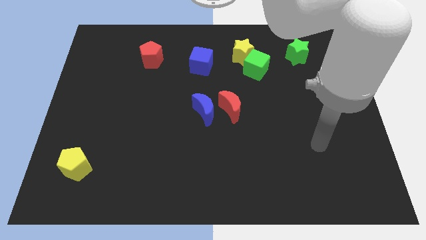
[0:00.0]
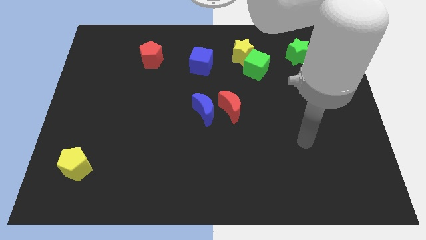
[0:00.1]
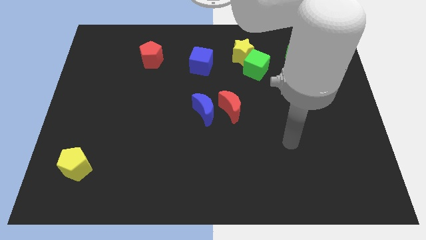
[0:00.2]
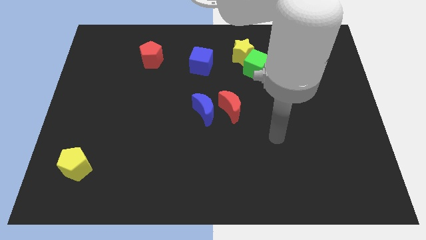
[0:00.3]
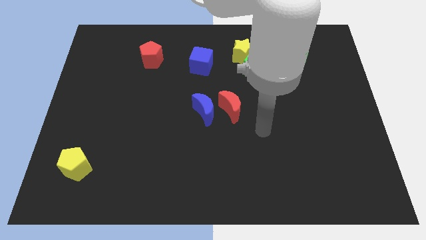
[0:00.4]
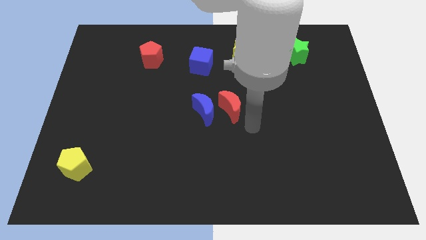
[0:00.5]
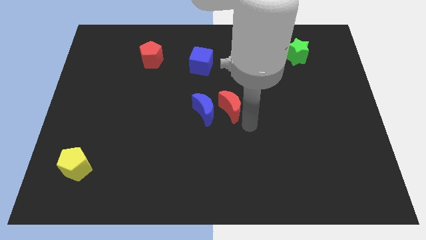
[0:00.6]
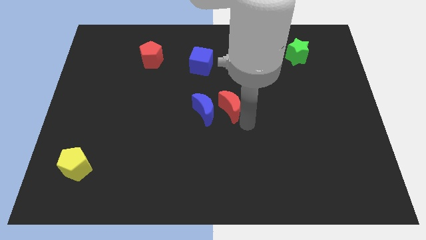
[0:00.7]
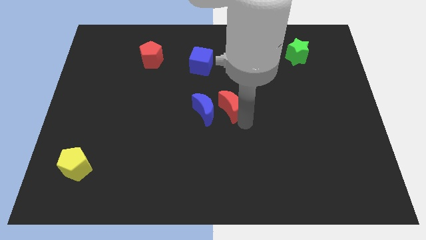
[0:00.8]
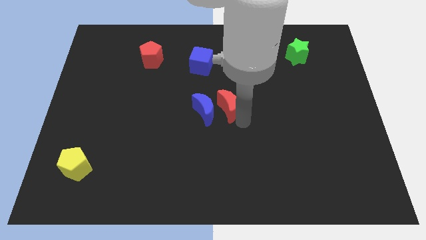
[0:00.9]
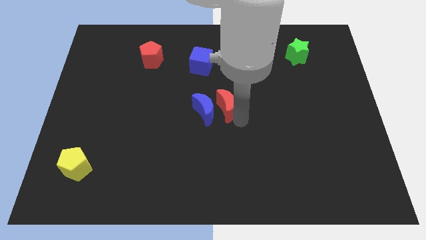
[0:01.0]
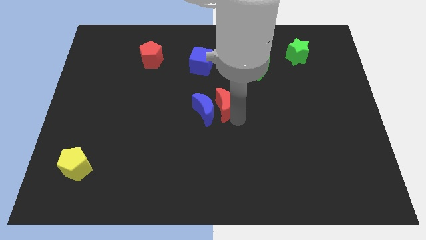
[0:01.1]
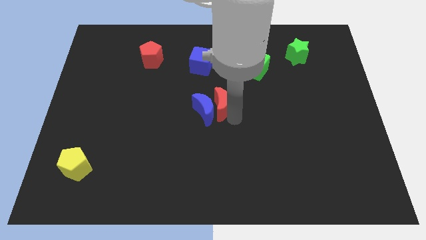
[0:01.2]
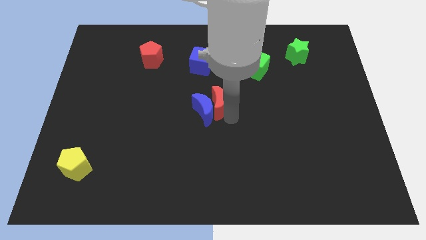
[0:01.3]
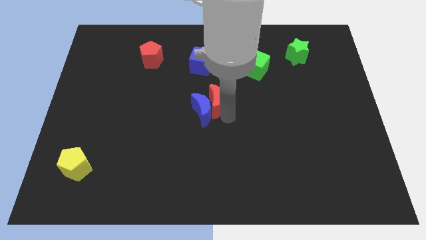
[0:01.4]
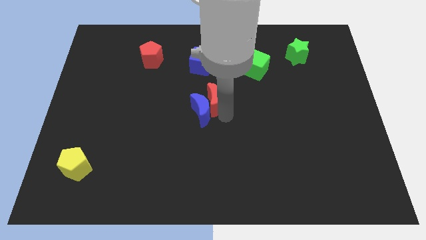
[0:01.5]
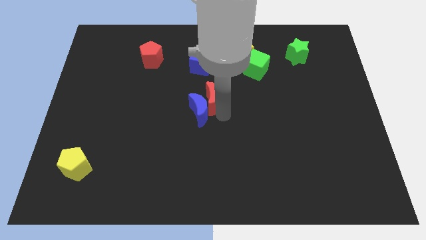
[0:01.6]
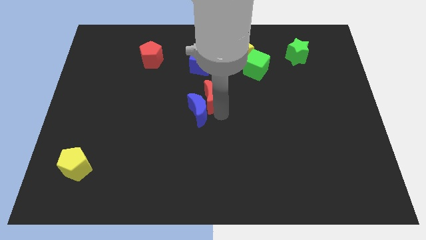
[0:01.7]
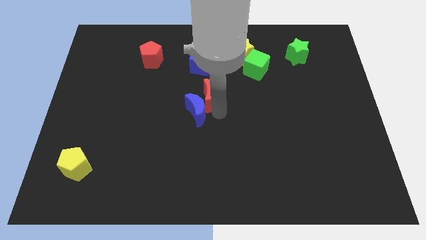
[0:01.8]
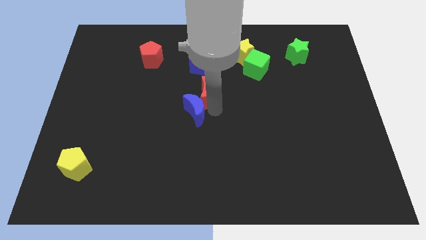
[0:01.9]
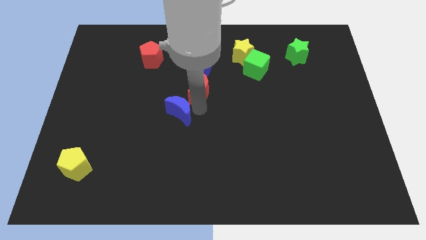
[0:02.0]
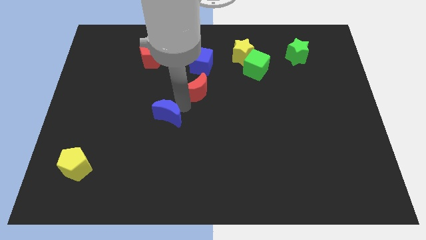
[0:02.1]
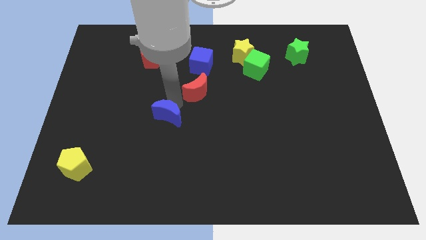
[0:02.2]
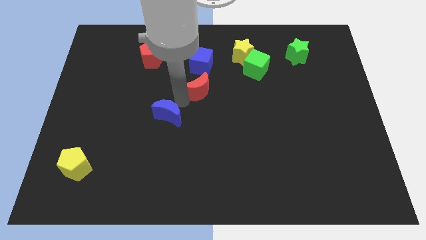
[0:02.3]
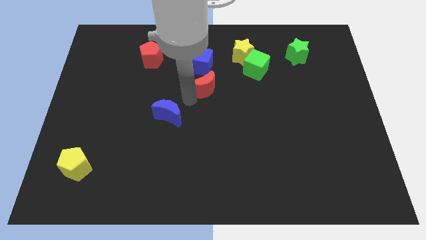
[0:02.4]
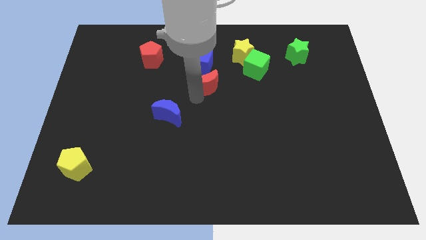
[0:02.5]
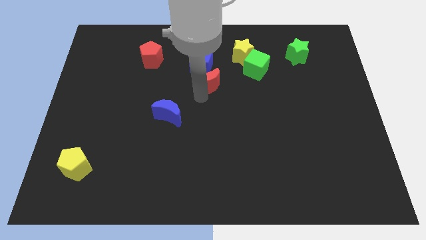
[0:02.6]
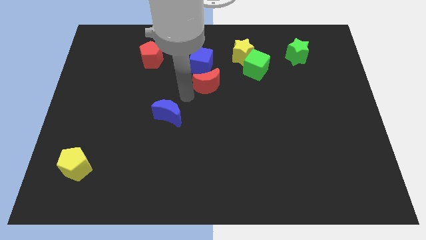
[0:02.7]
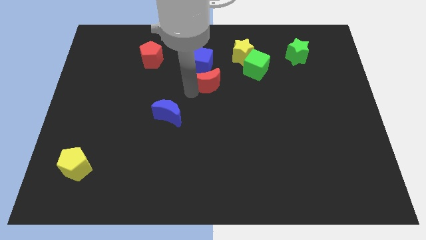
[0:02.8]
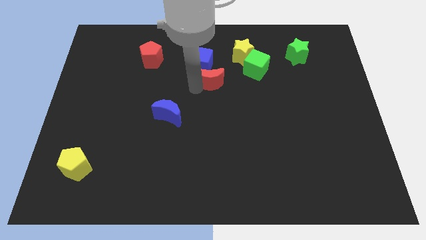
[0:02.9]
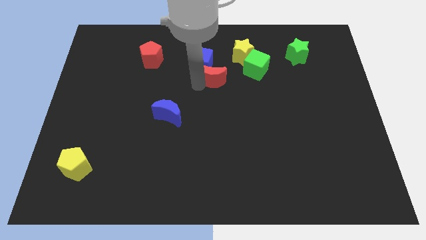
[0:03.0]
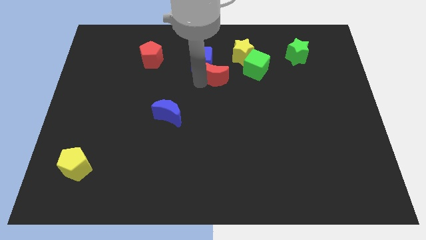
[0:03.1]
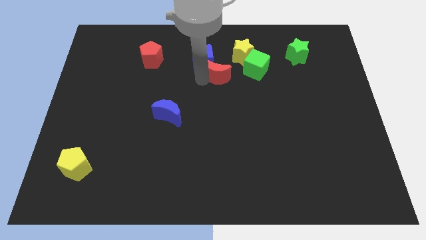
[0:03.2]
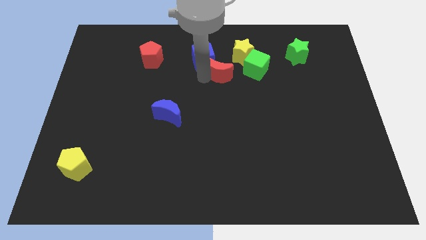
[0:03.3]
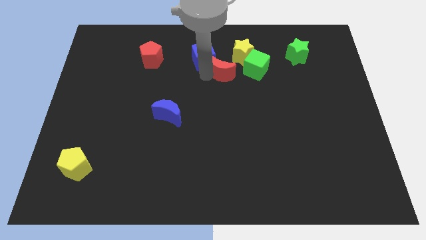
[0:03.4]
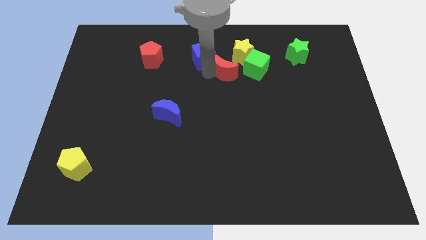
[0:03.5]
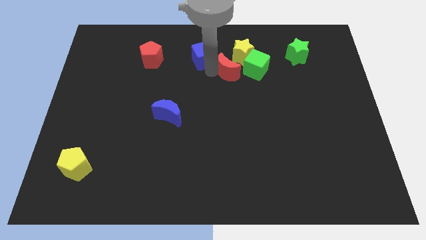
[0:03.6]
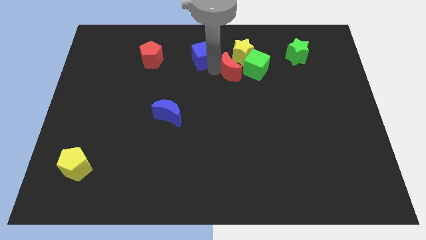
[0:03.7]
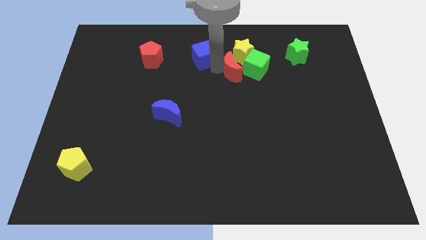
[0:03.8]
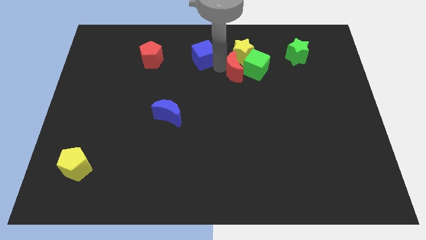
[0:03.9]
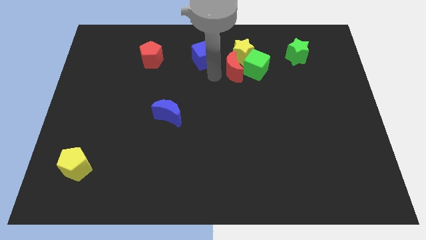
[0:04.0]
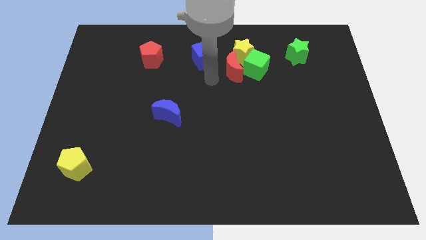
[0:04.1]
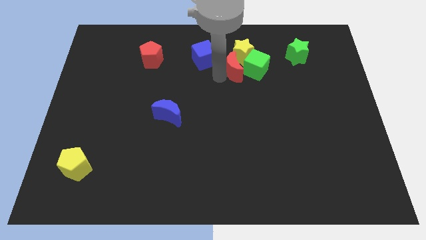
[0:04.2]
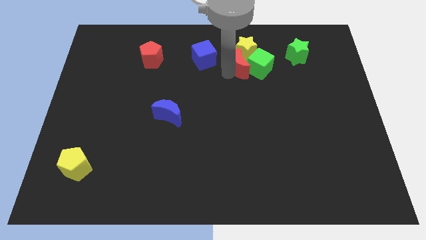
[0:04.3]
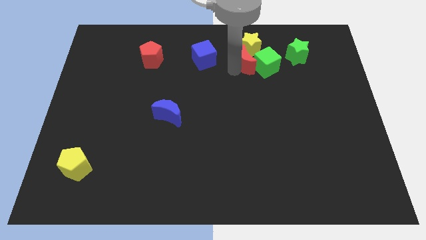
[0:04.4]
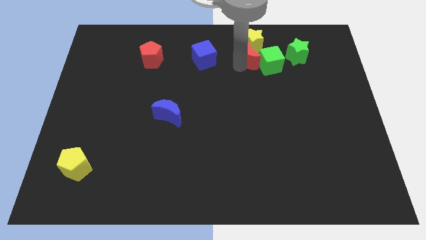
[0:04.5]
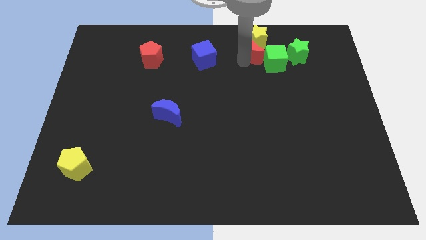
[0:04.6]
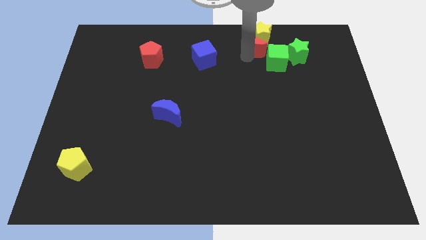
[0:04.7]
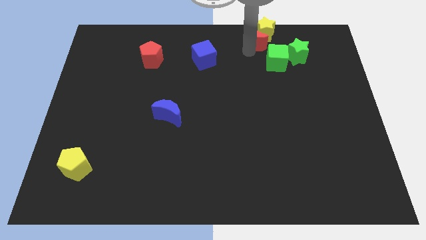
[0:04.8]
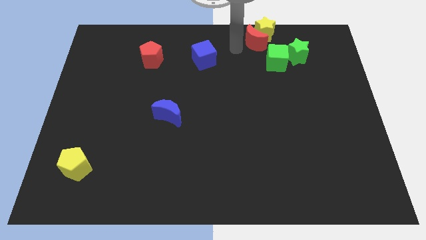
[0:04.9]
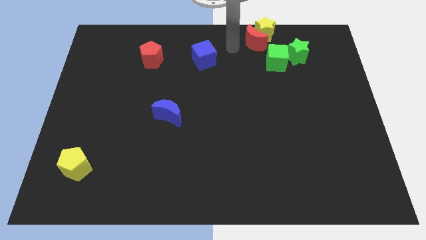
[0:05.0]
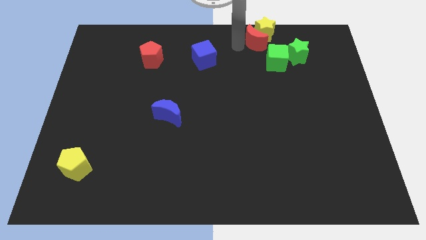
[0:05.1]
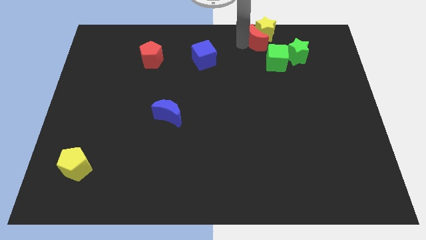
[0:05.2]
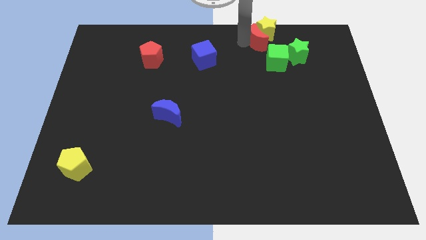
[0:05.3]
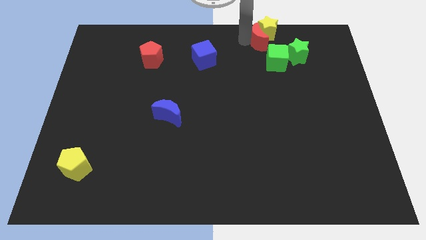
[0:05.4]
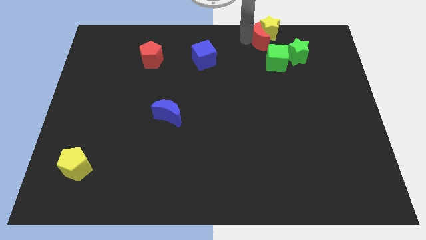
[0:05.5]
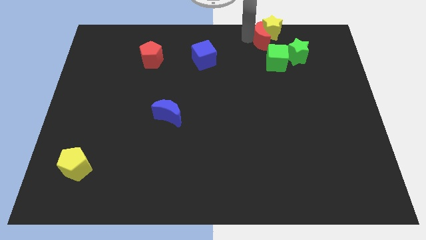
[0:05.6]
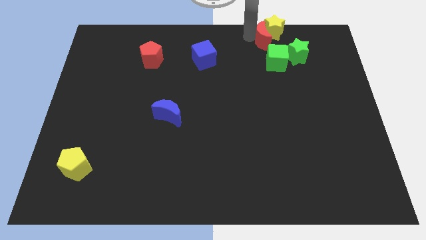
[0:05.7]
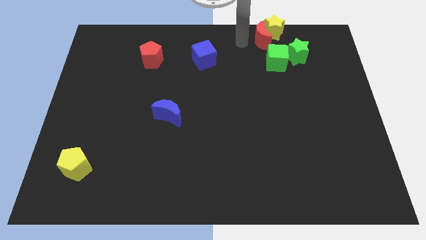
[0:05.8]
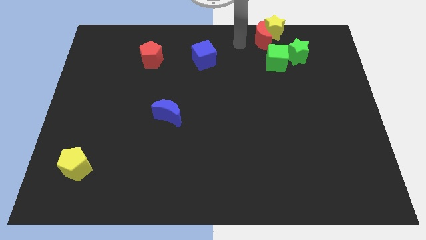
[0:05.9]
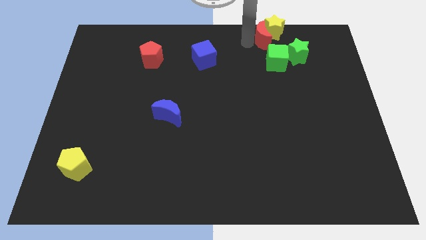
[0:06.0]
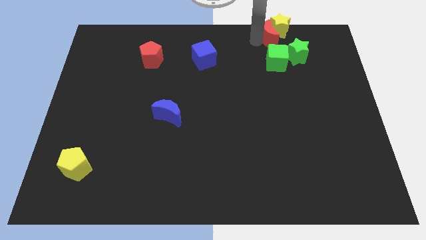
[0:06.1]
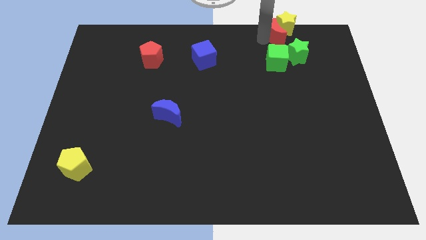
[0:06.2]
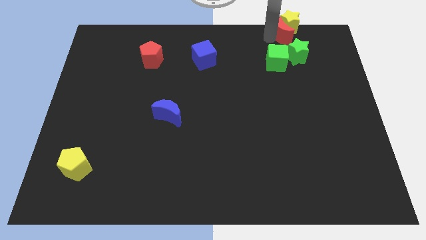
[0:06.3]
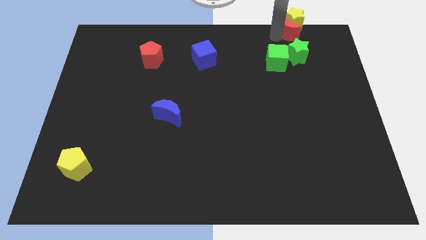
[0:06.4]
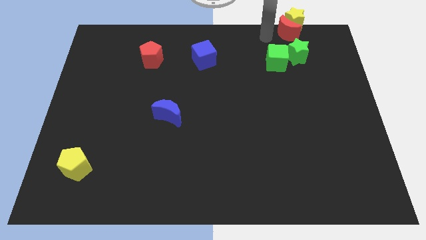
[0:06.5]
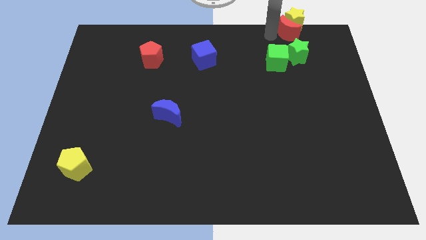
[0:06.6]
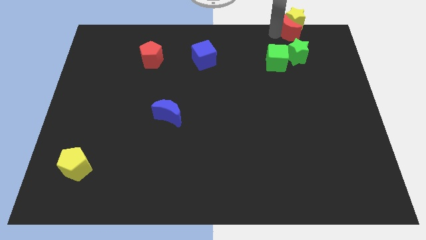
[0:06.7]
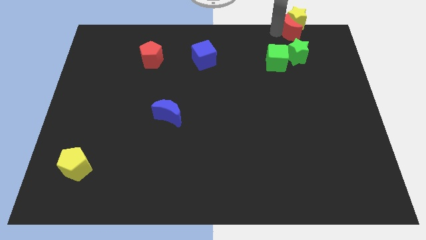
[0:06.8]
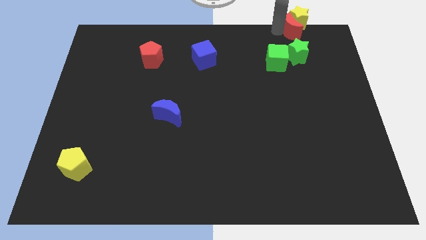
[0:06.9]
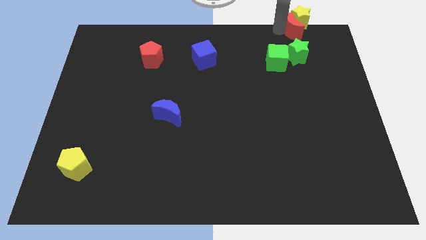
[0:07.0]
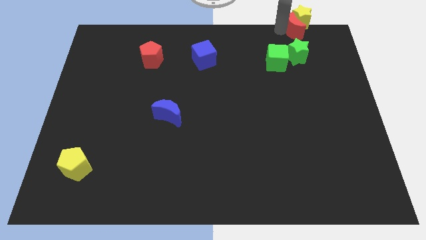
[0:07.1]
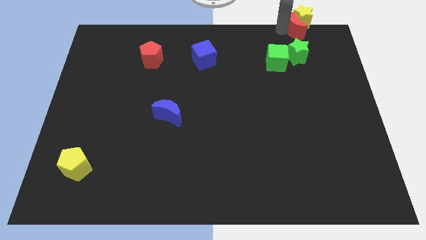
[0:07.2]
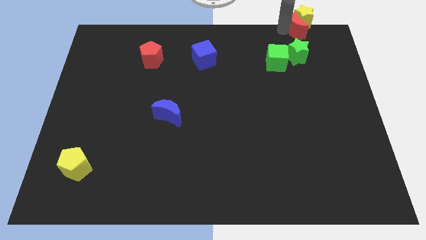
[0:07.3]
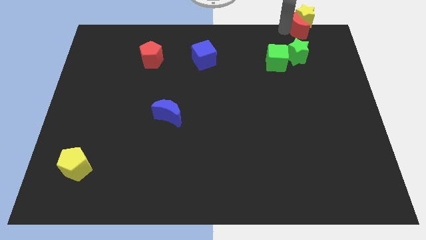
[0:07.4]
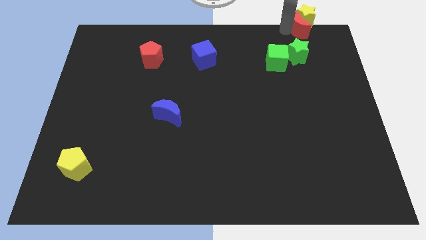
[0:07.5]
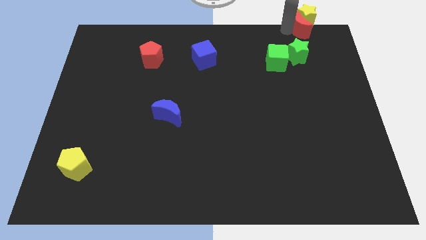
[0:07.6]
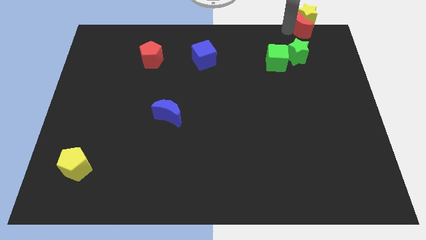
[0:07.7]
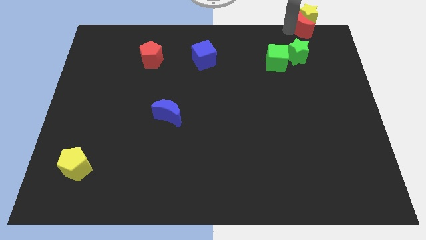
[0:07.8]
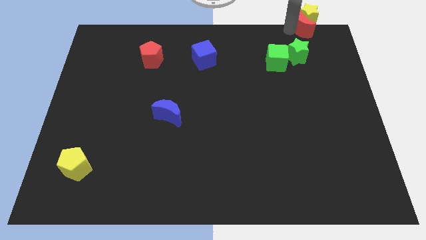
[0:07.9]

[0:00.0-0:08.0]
put the red moon to the upper right corner
